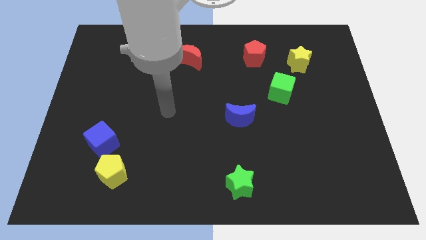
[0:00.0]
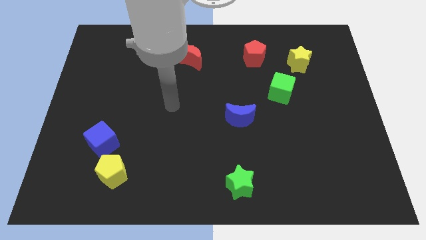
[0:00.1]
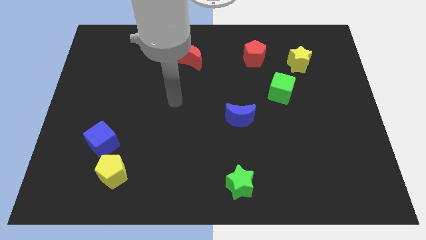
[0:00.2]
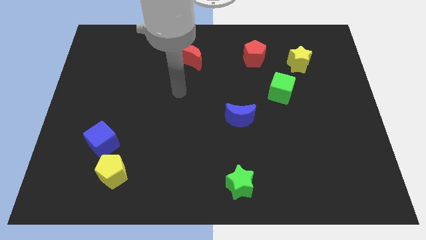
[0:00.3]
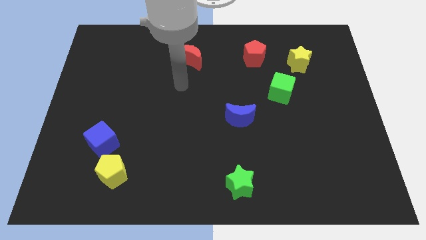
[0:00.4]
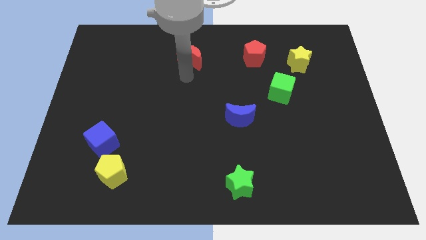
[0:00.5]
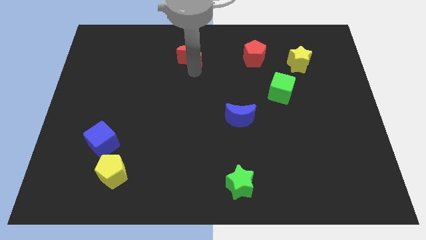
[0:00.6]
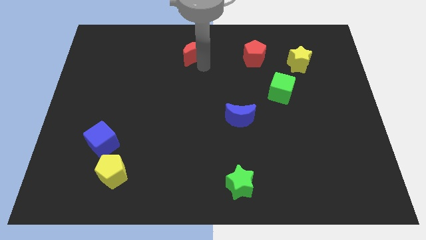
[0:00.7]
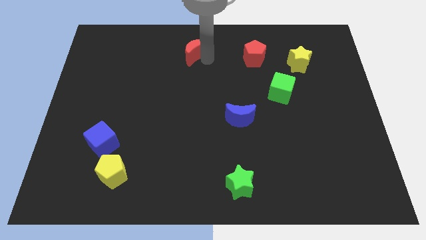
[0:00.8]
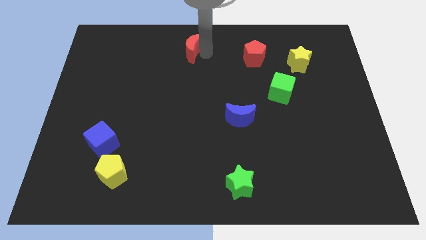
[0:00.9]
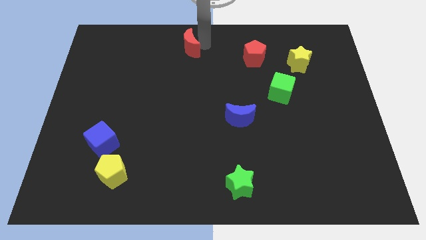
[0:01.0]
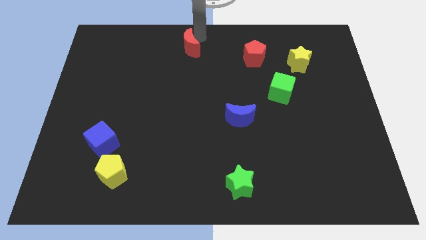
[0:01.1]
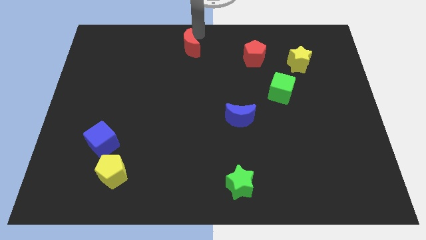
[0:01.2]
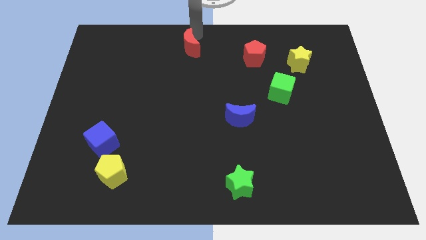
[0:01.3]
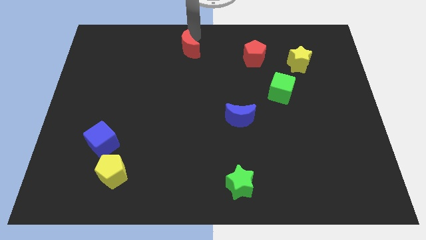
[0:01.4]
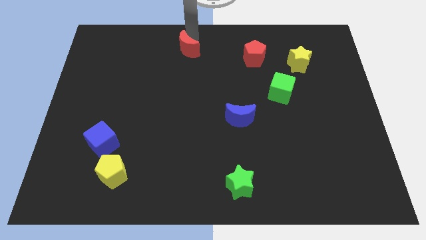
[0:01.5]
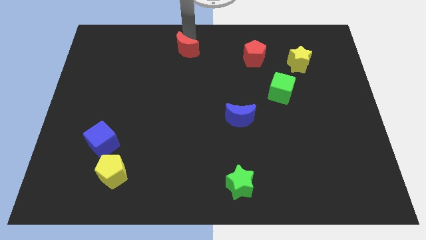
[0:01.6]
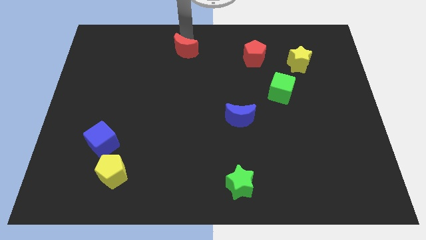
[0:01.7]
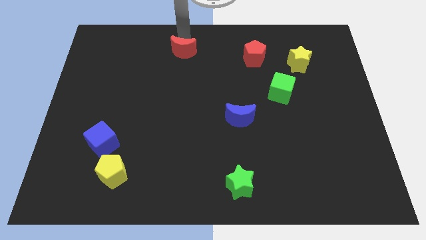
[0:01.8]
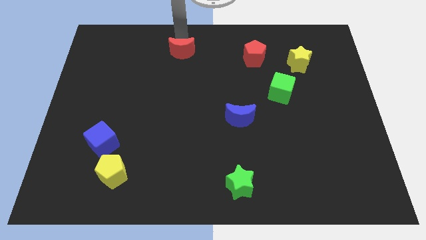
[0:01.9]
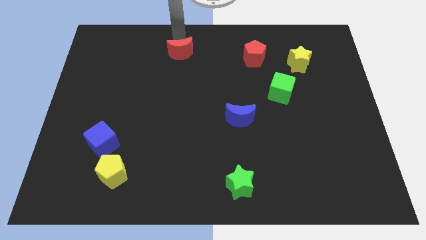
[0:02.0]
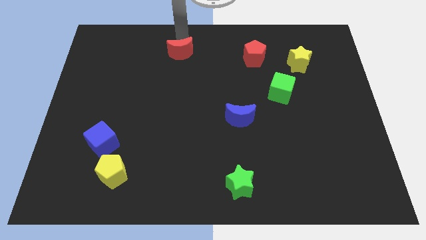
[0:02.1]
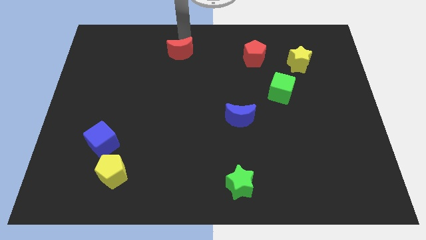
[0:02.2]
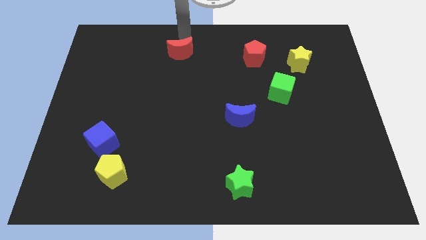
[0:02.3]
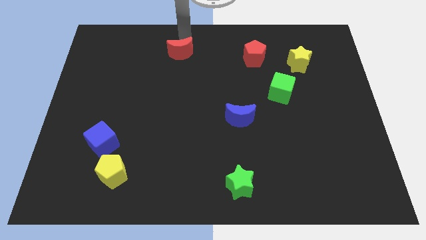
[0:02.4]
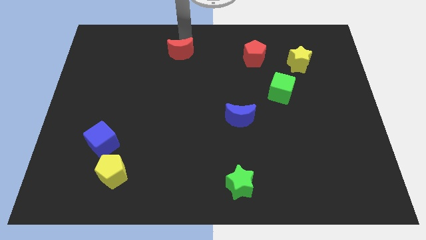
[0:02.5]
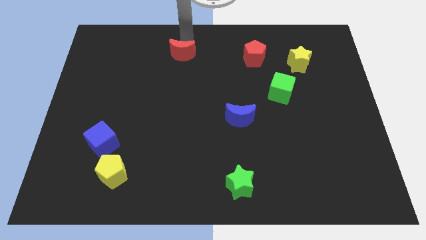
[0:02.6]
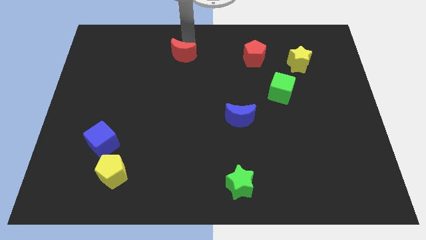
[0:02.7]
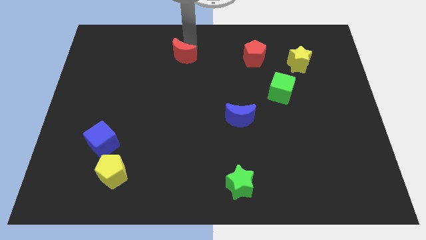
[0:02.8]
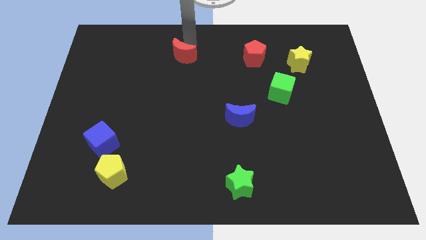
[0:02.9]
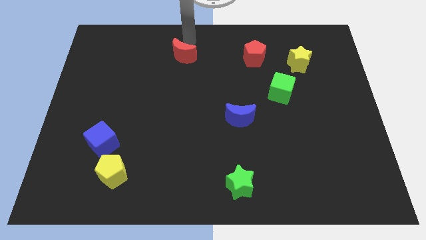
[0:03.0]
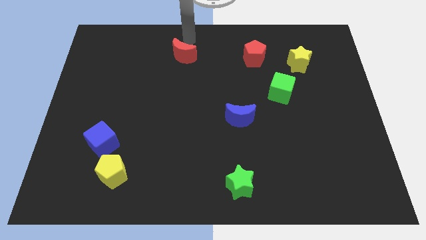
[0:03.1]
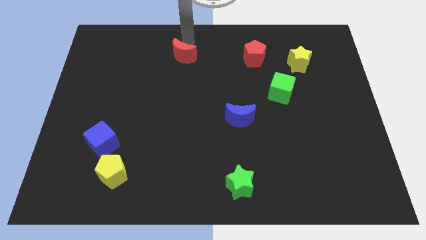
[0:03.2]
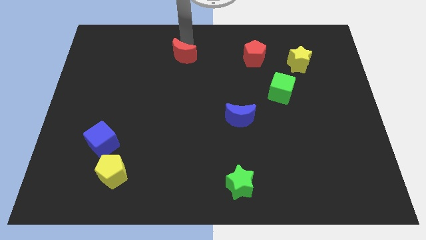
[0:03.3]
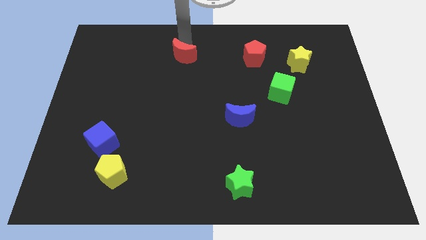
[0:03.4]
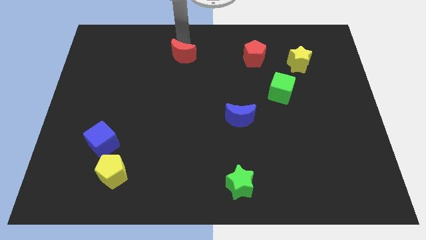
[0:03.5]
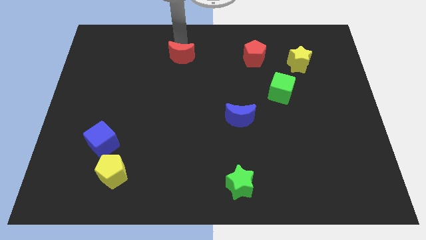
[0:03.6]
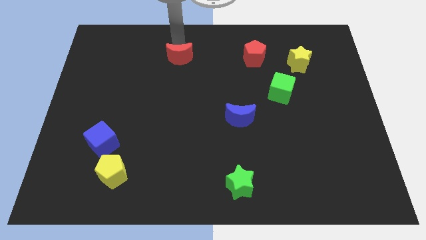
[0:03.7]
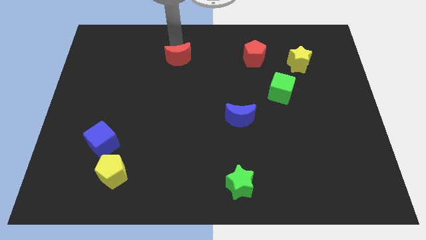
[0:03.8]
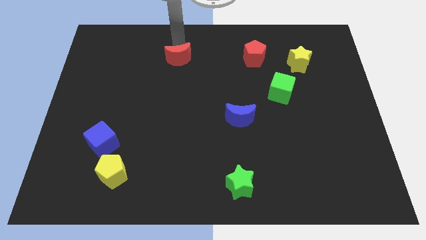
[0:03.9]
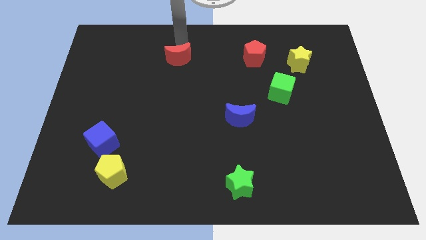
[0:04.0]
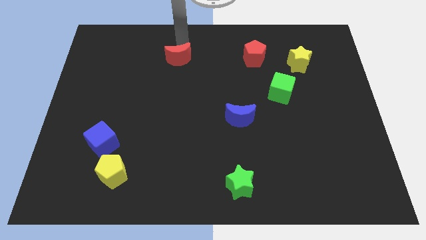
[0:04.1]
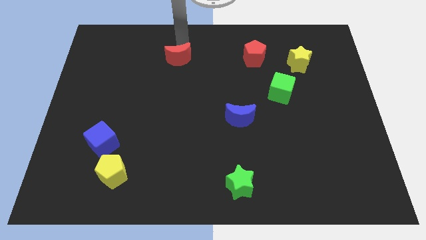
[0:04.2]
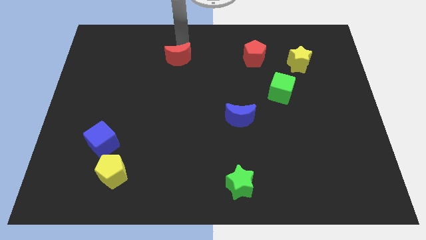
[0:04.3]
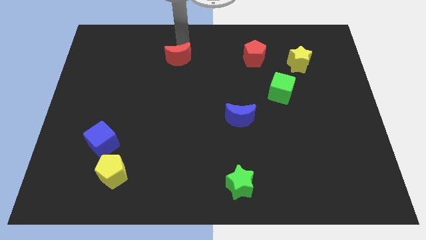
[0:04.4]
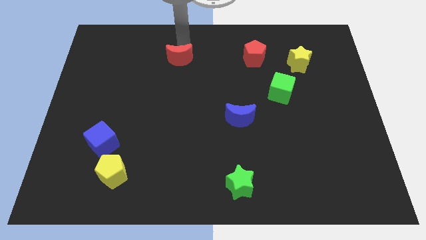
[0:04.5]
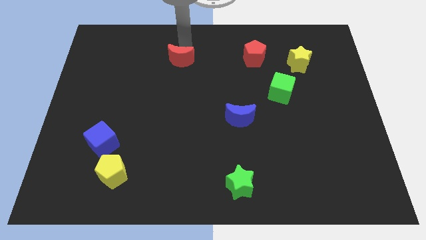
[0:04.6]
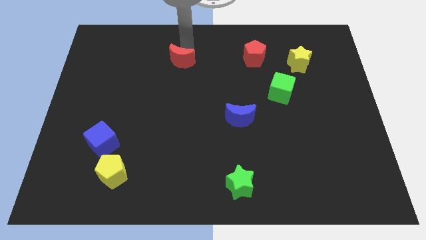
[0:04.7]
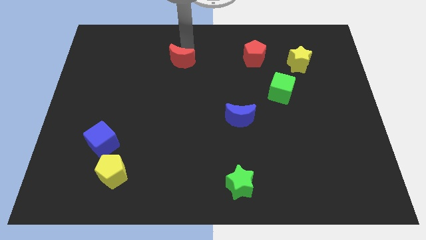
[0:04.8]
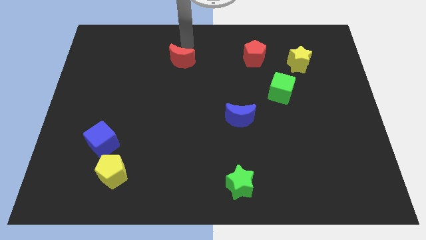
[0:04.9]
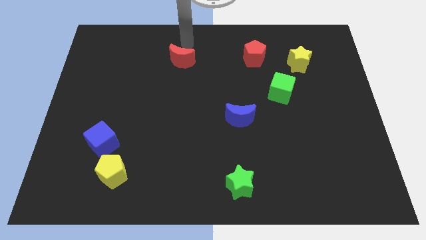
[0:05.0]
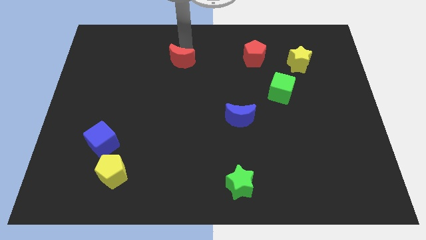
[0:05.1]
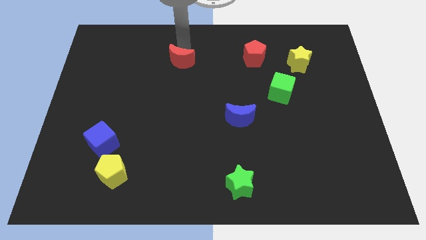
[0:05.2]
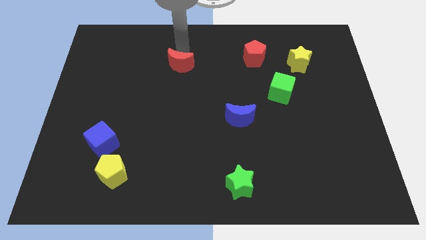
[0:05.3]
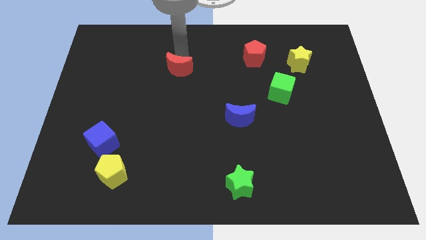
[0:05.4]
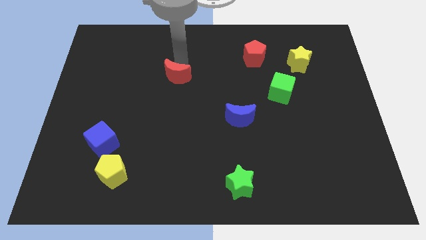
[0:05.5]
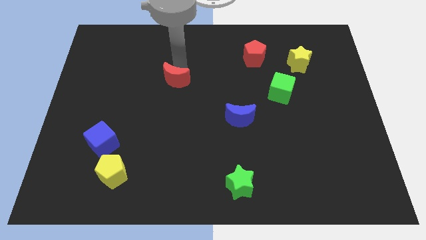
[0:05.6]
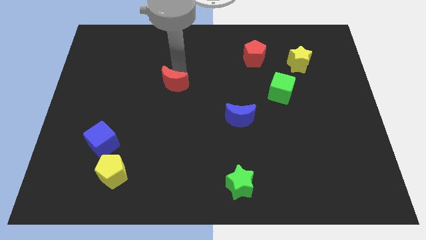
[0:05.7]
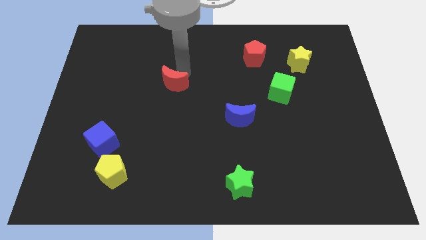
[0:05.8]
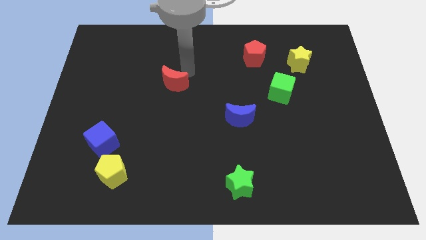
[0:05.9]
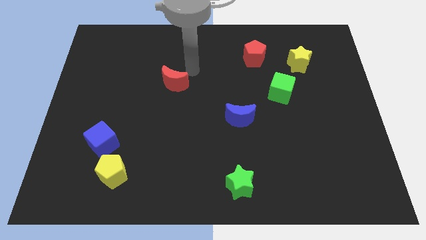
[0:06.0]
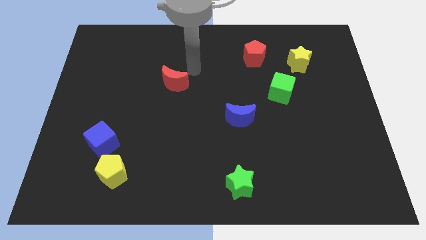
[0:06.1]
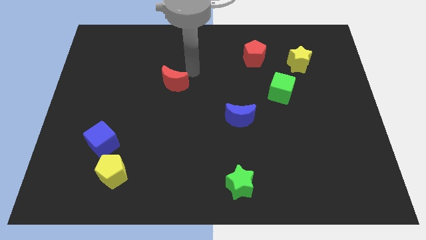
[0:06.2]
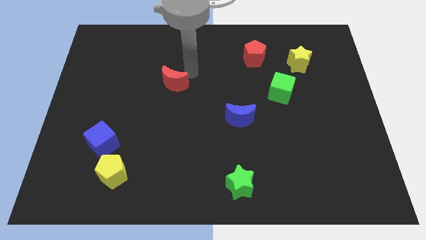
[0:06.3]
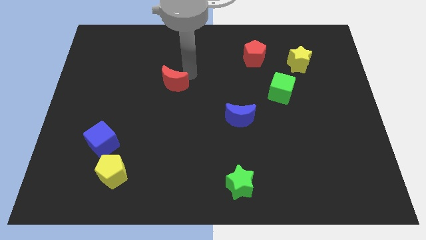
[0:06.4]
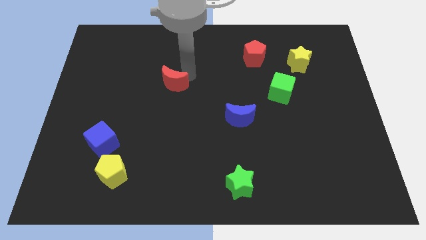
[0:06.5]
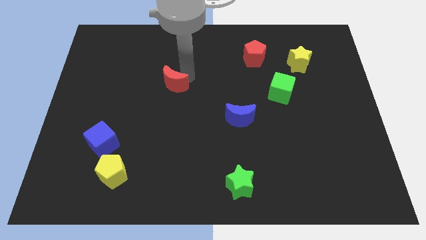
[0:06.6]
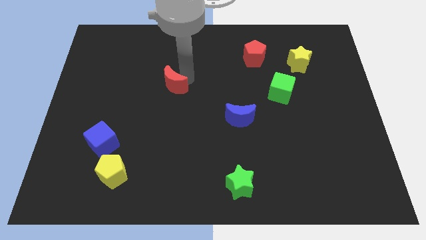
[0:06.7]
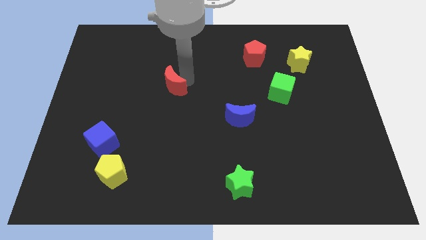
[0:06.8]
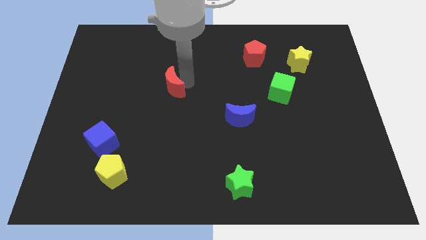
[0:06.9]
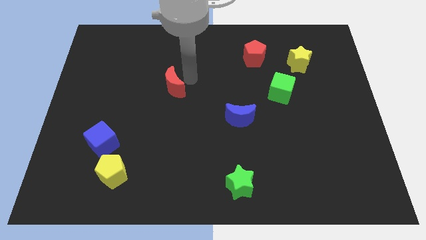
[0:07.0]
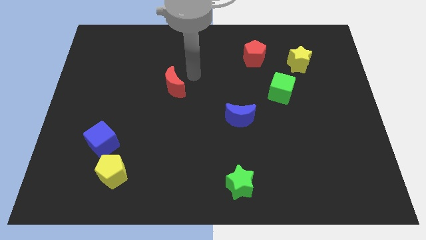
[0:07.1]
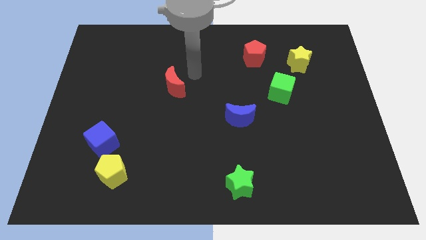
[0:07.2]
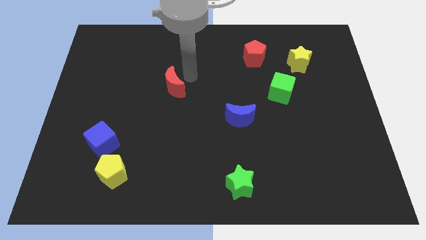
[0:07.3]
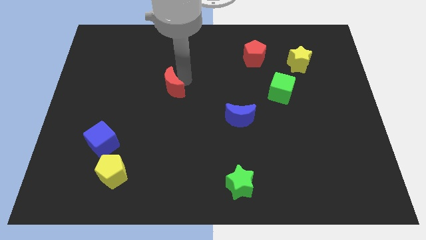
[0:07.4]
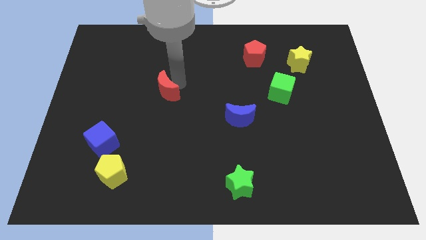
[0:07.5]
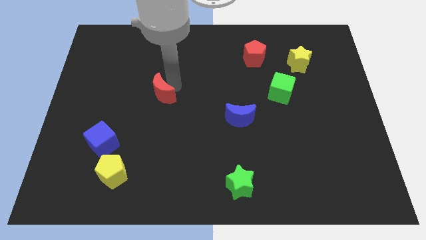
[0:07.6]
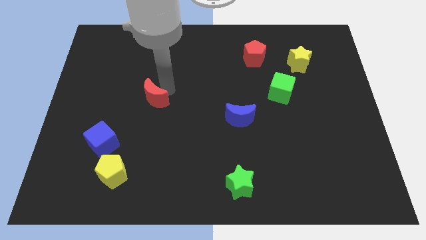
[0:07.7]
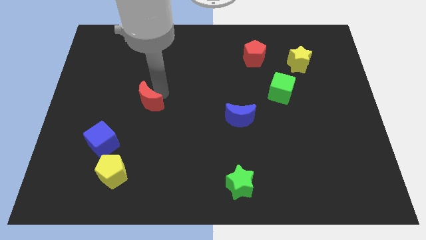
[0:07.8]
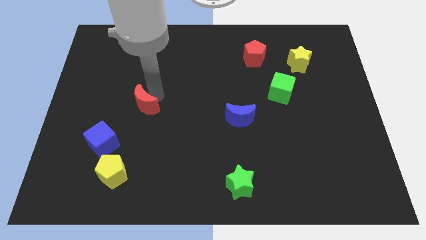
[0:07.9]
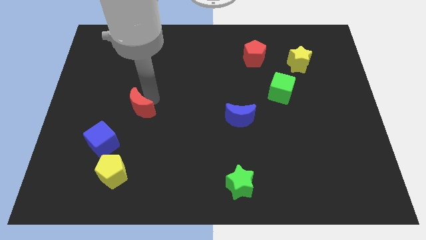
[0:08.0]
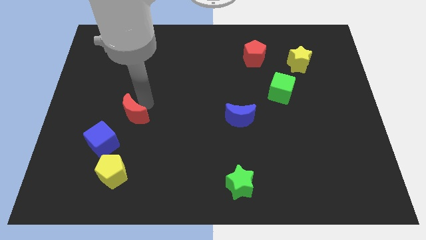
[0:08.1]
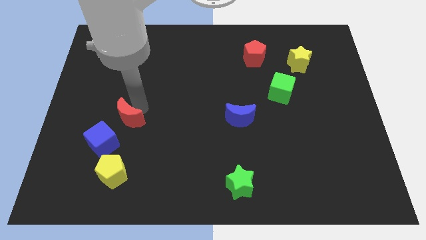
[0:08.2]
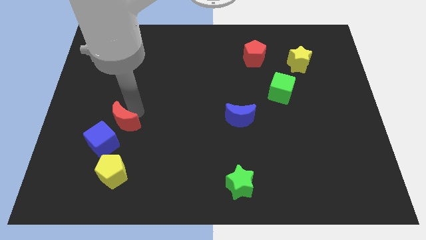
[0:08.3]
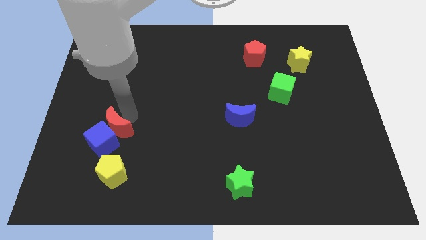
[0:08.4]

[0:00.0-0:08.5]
move the red moon towards the blue cube
